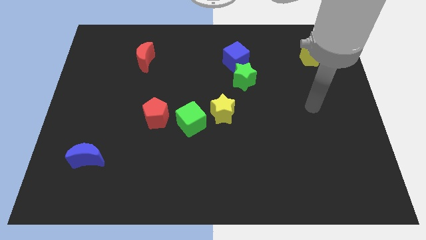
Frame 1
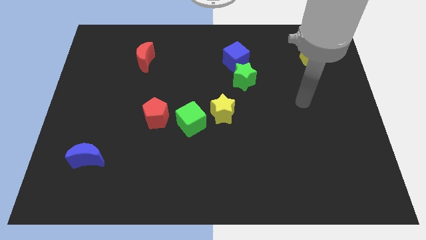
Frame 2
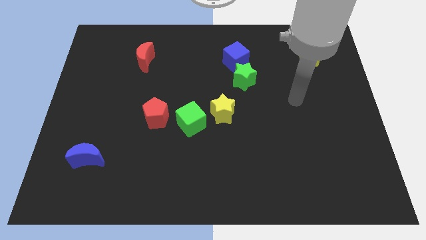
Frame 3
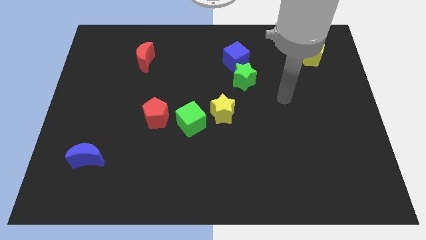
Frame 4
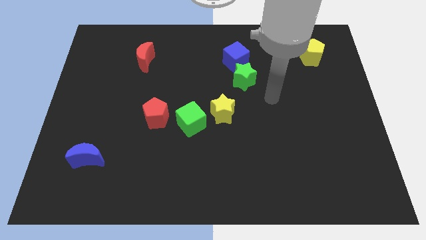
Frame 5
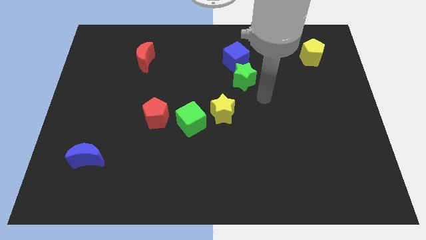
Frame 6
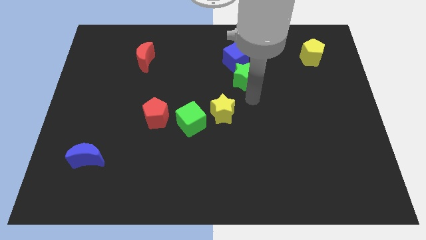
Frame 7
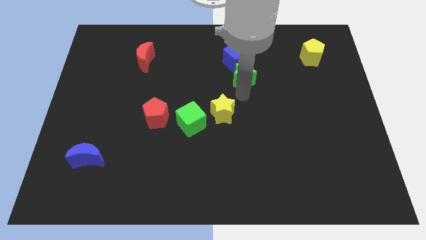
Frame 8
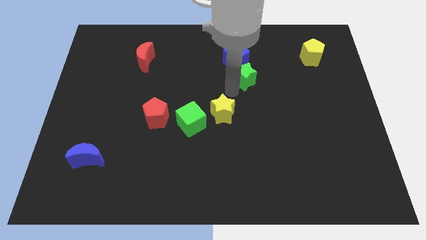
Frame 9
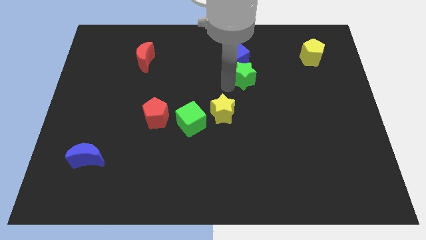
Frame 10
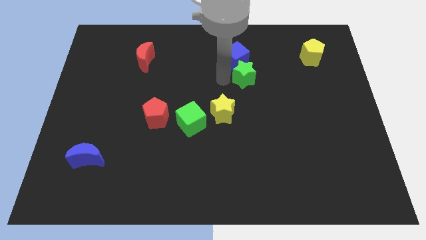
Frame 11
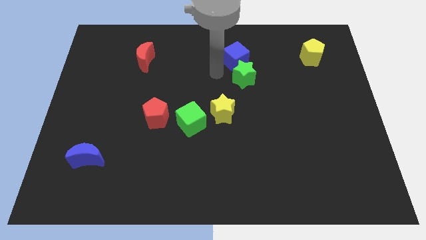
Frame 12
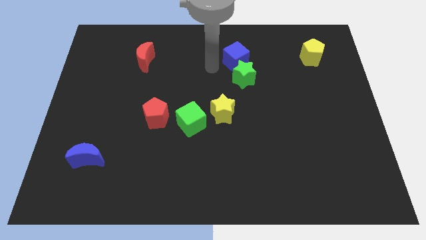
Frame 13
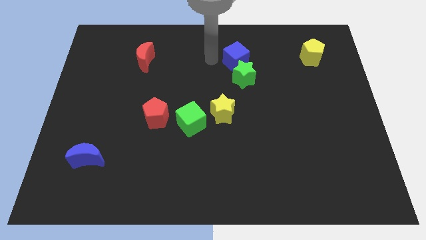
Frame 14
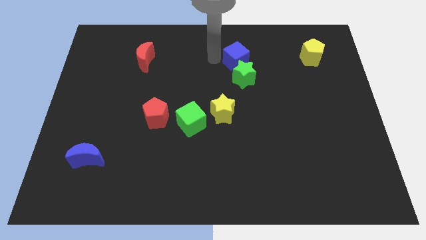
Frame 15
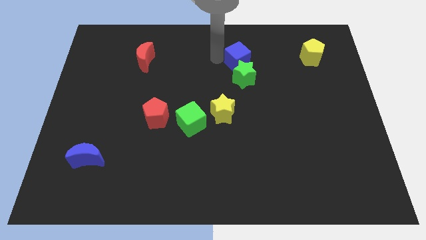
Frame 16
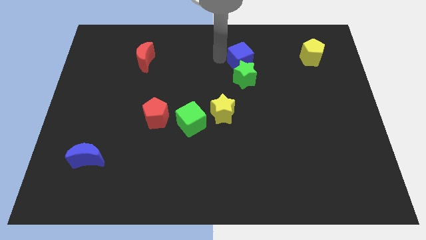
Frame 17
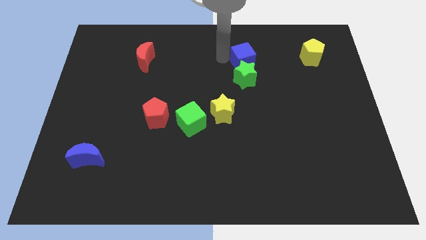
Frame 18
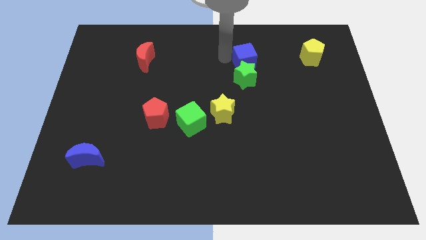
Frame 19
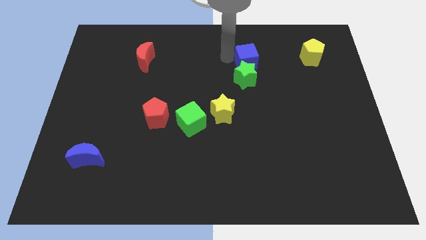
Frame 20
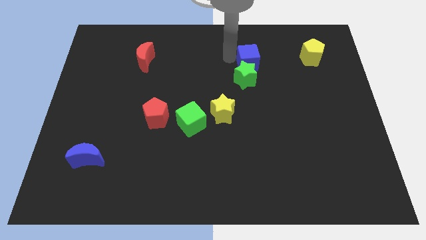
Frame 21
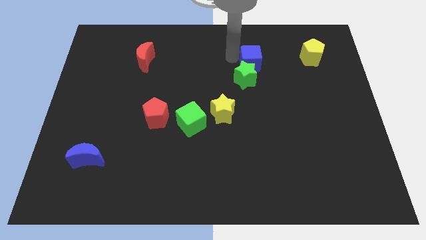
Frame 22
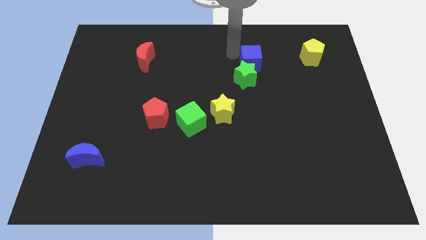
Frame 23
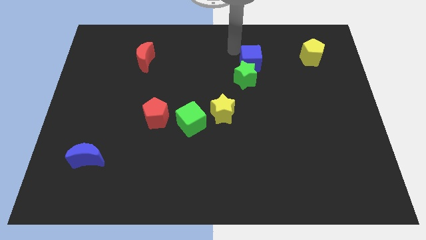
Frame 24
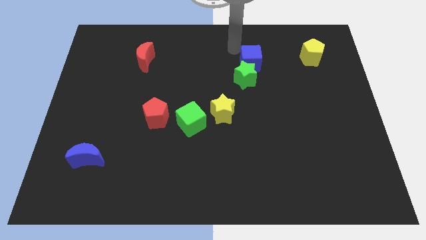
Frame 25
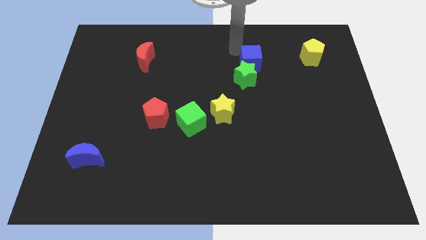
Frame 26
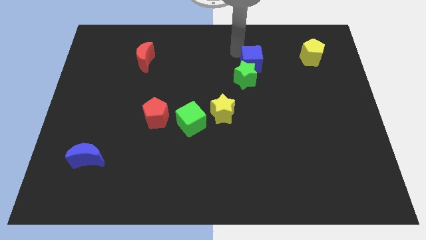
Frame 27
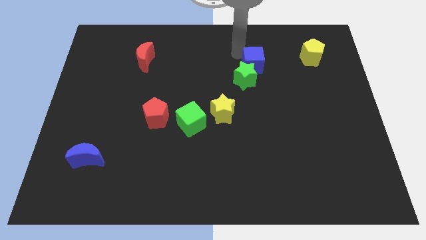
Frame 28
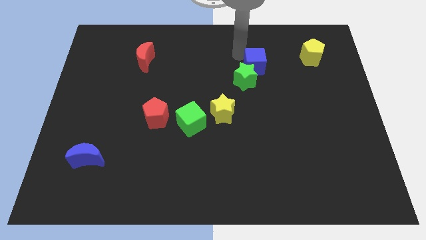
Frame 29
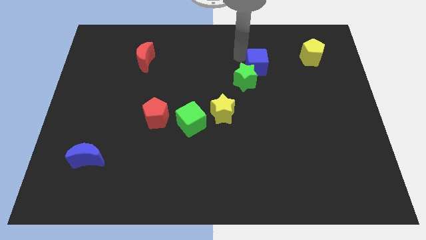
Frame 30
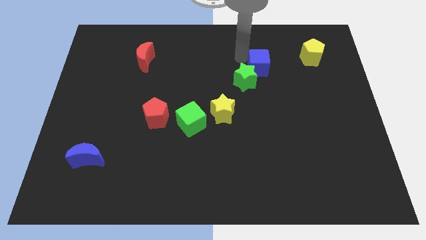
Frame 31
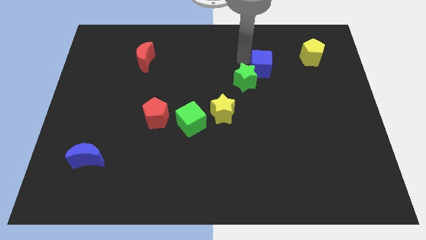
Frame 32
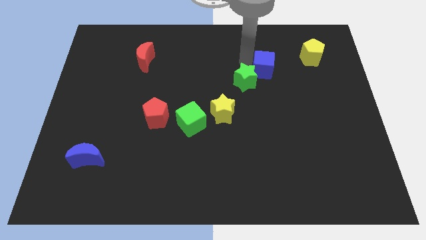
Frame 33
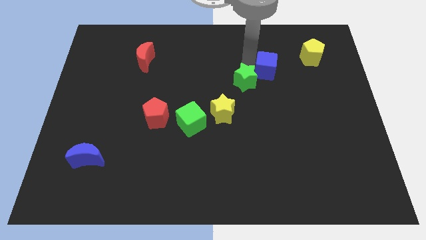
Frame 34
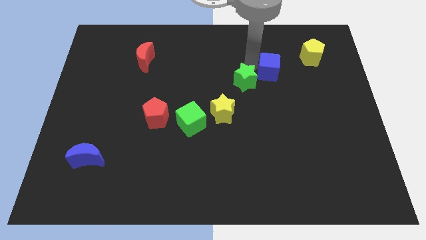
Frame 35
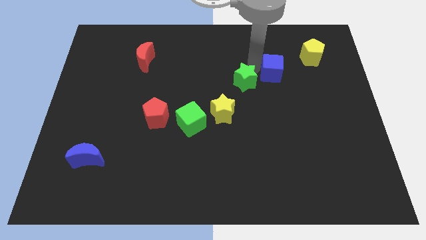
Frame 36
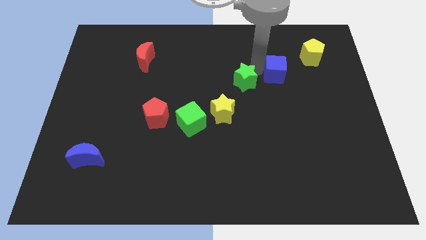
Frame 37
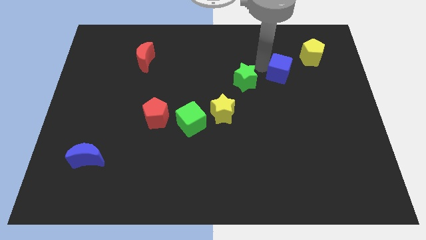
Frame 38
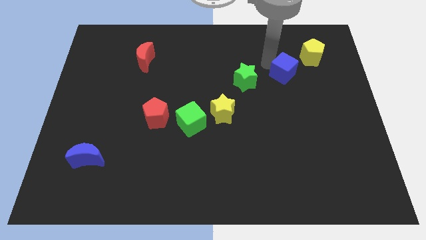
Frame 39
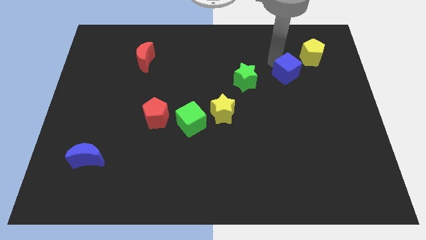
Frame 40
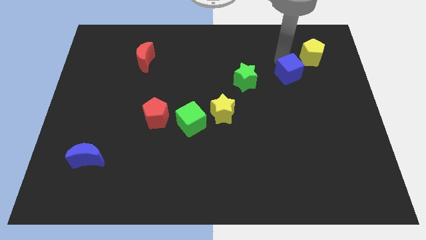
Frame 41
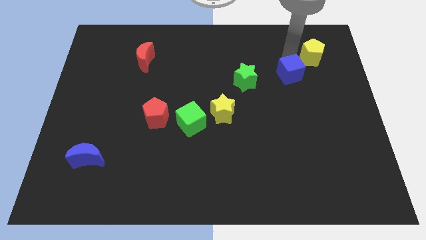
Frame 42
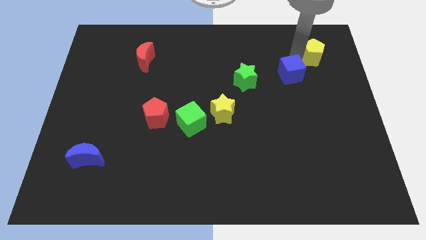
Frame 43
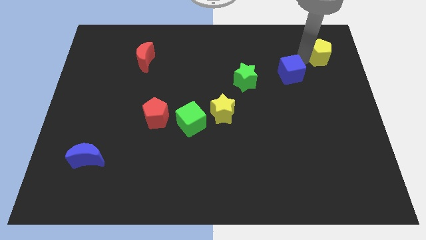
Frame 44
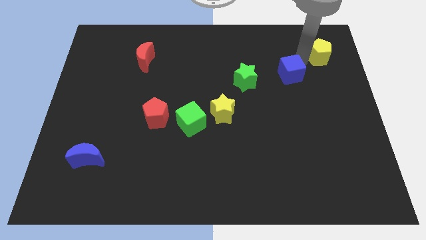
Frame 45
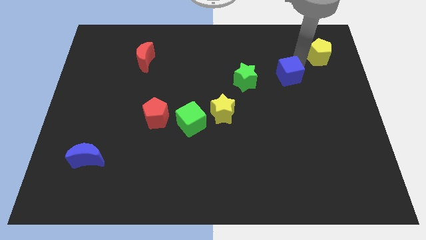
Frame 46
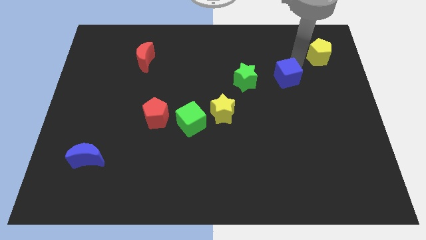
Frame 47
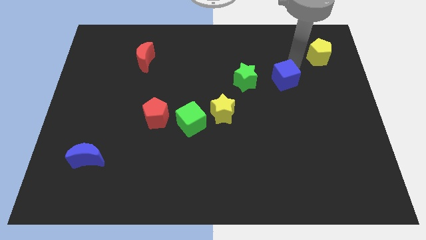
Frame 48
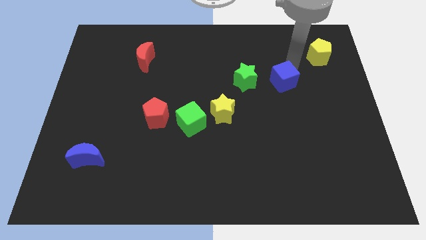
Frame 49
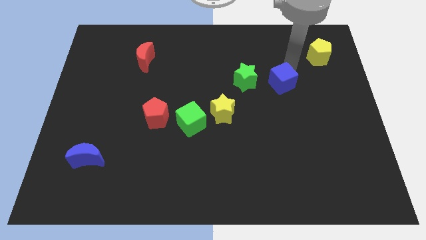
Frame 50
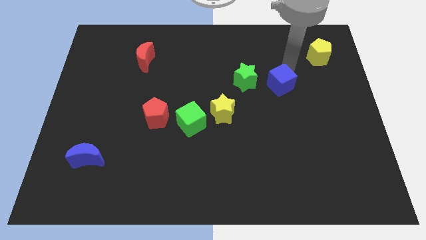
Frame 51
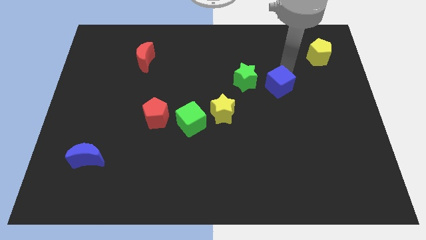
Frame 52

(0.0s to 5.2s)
slide the blue cube to the bottom right of the green star

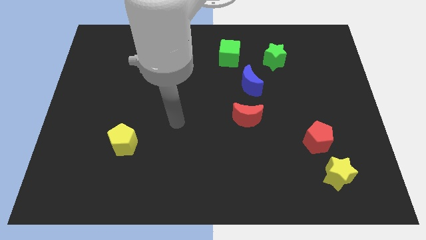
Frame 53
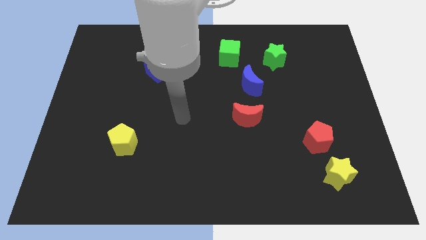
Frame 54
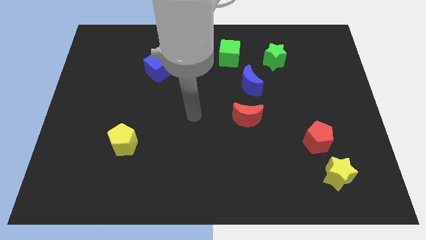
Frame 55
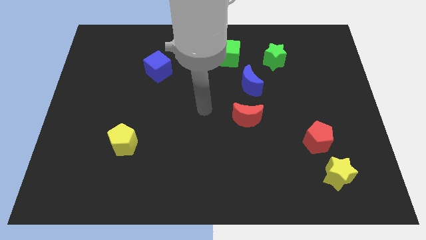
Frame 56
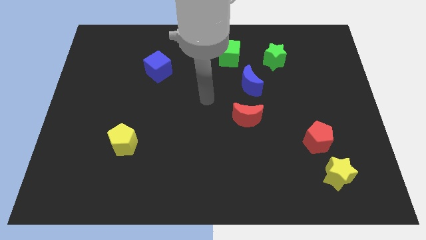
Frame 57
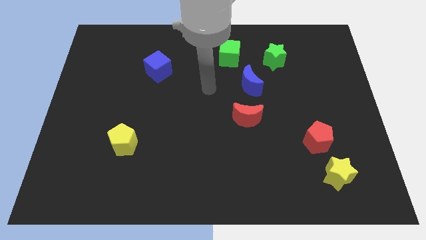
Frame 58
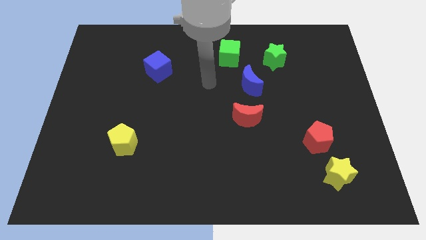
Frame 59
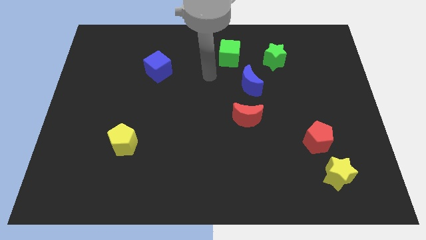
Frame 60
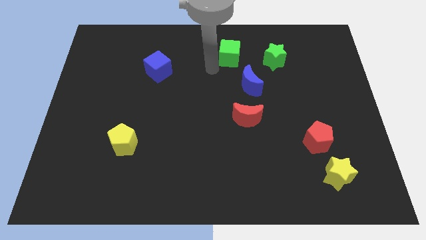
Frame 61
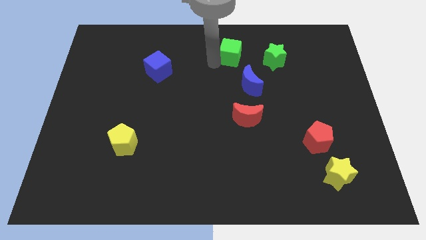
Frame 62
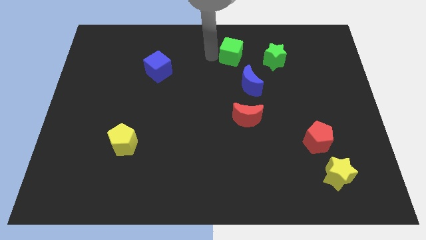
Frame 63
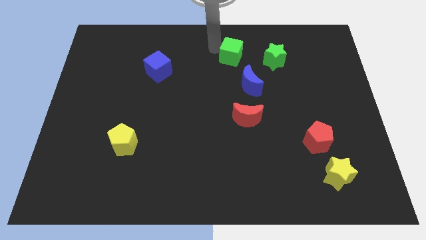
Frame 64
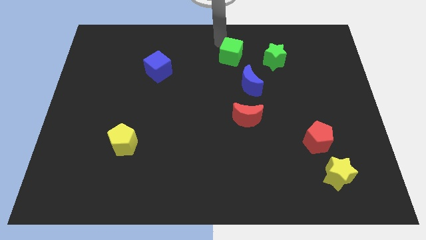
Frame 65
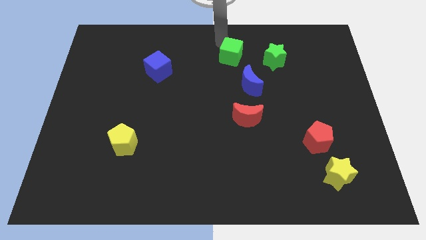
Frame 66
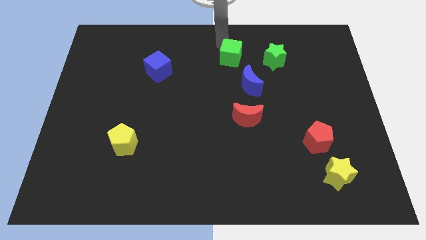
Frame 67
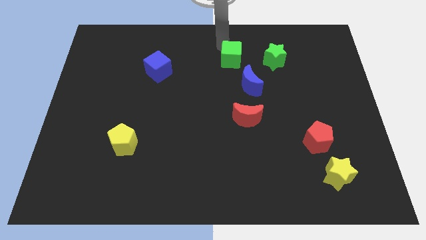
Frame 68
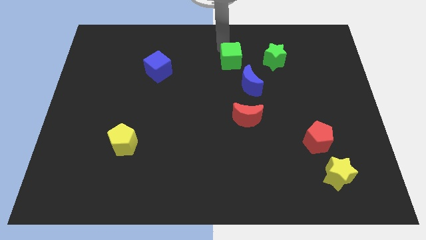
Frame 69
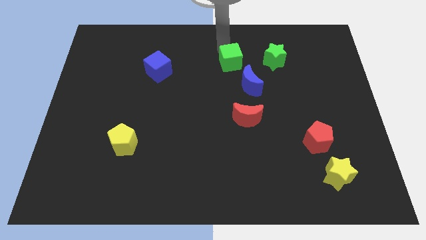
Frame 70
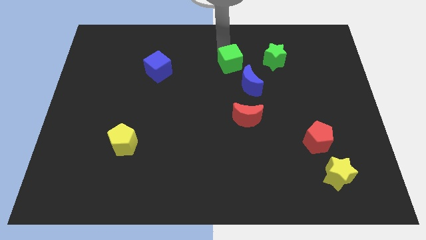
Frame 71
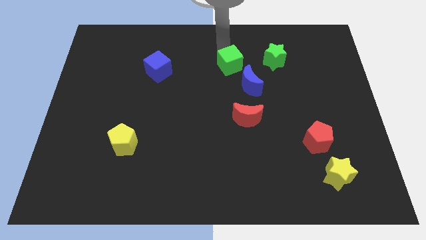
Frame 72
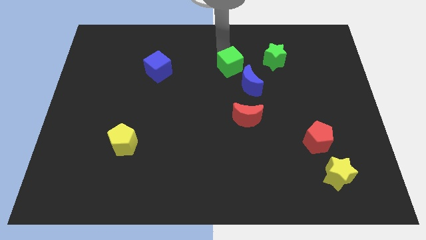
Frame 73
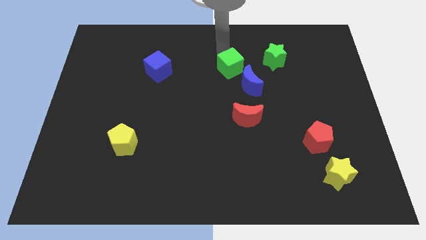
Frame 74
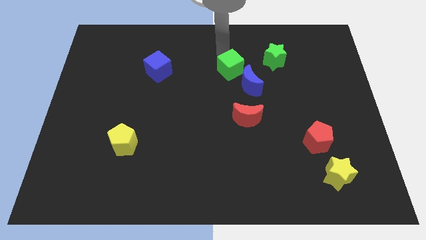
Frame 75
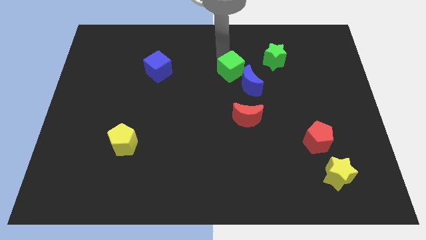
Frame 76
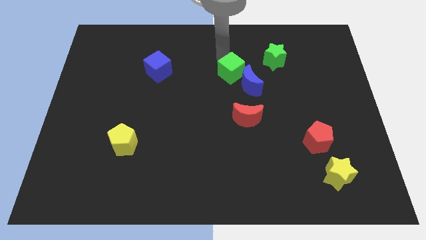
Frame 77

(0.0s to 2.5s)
put the green cube to the top of the red moon

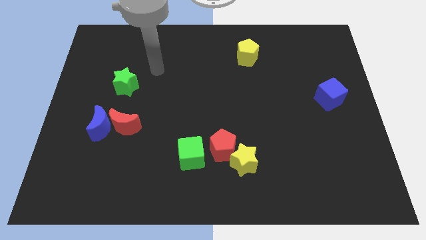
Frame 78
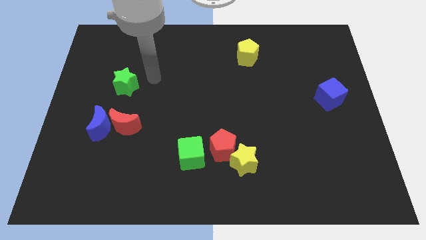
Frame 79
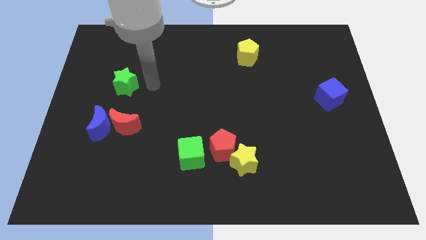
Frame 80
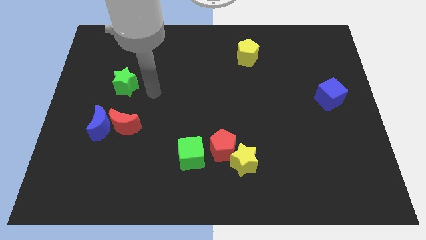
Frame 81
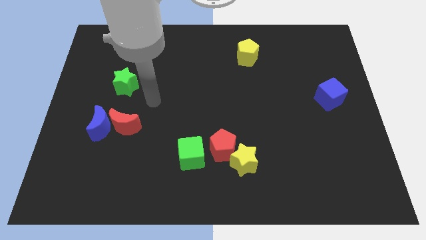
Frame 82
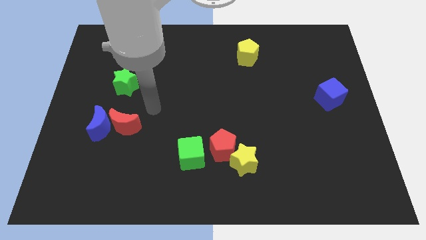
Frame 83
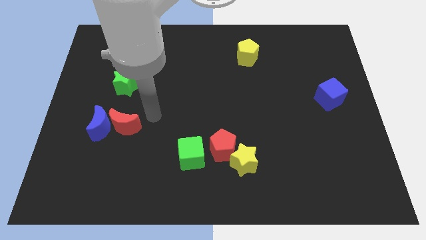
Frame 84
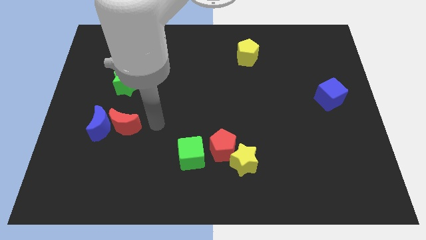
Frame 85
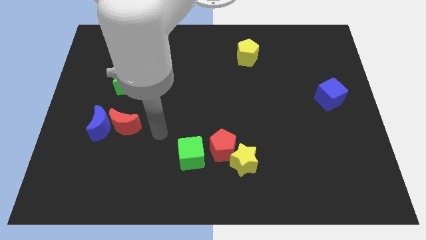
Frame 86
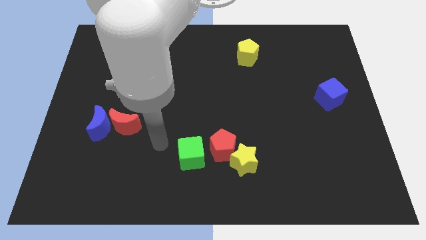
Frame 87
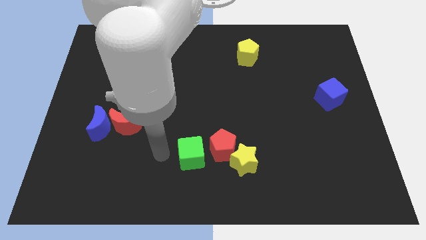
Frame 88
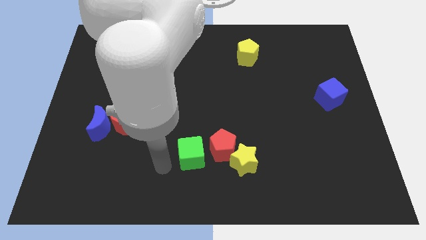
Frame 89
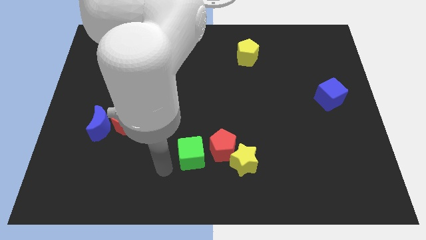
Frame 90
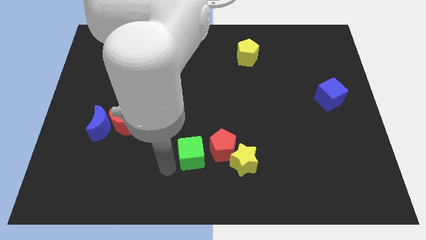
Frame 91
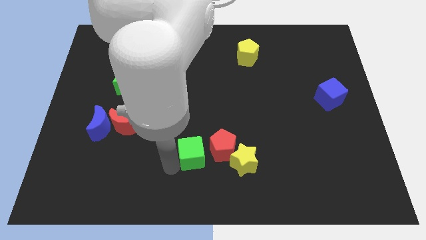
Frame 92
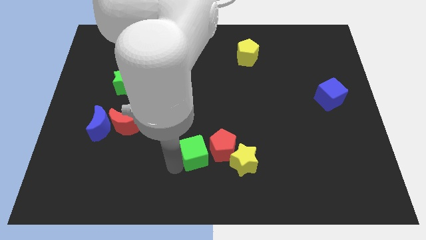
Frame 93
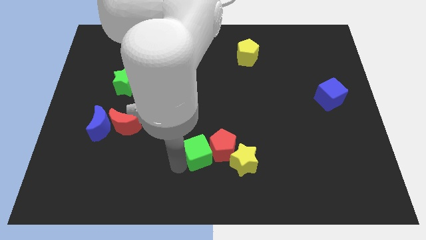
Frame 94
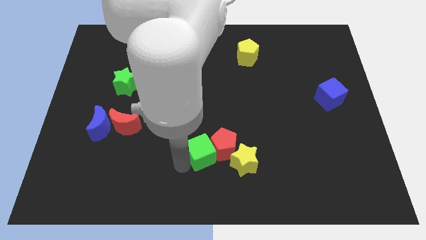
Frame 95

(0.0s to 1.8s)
push the green cube to the top left side of the yellow star
